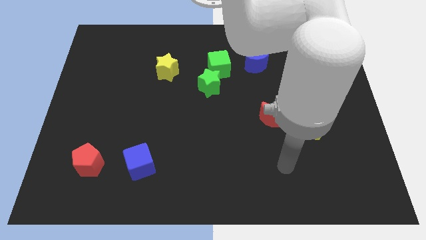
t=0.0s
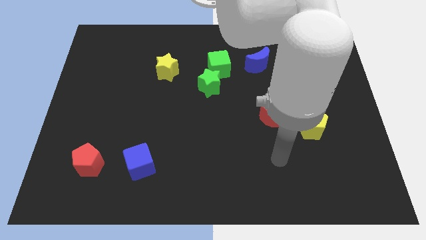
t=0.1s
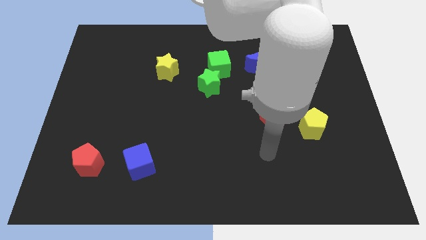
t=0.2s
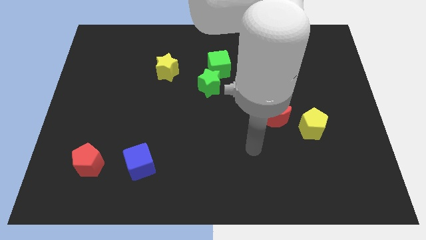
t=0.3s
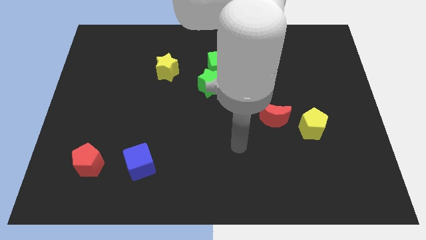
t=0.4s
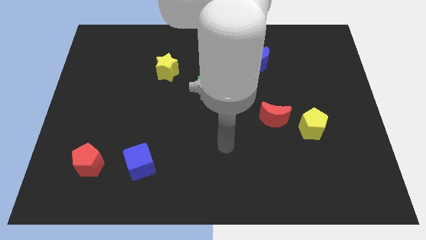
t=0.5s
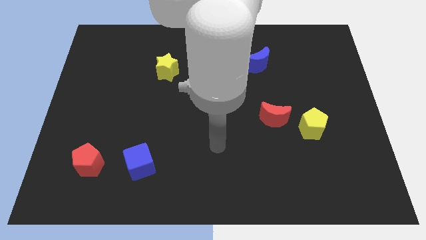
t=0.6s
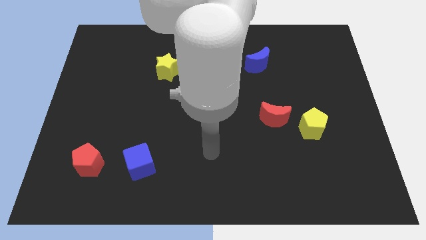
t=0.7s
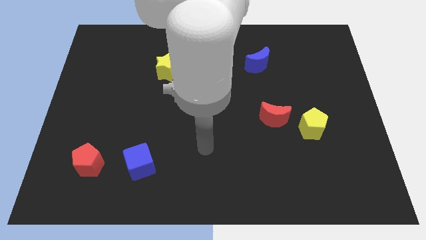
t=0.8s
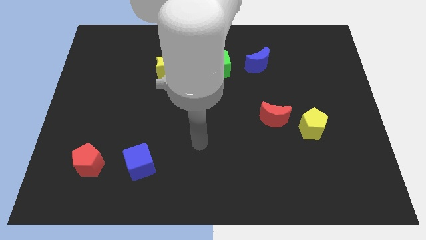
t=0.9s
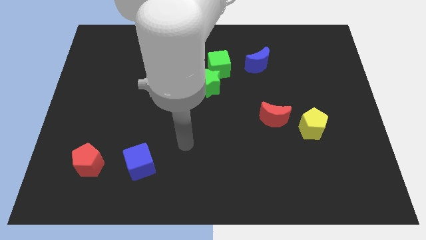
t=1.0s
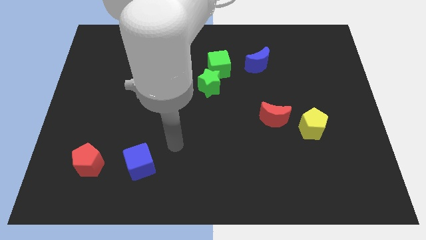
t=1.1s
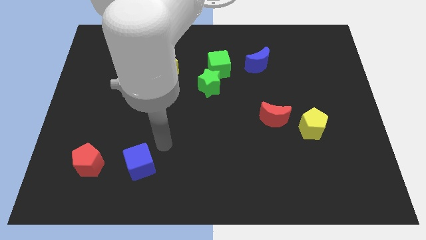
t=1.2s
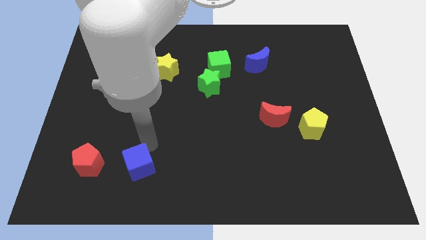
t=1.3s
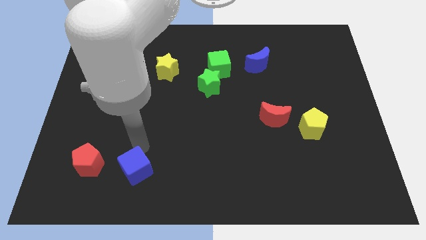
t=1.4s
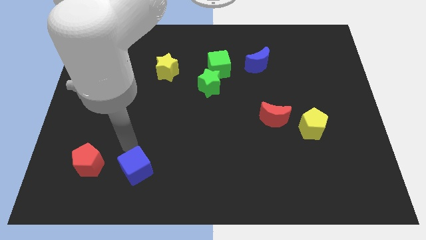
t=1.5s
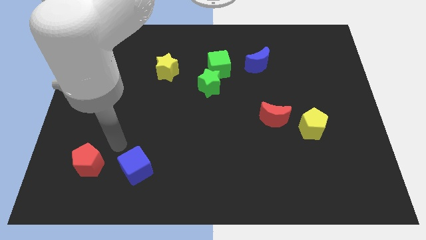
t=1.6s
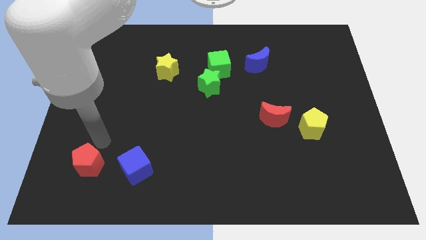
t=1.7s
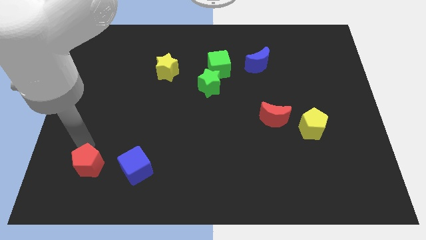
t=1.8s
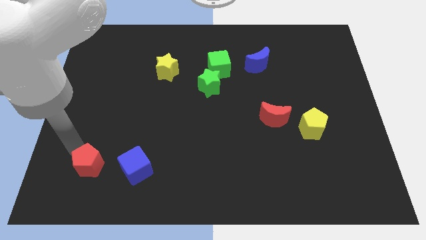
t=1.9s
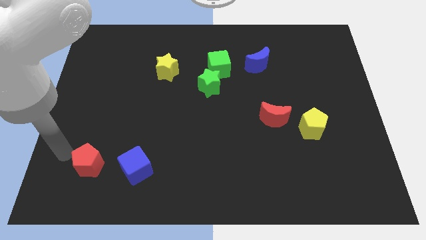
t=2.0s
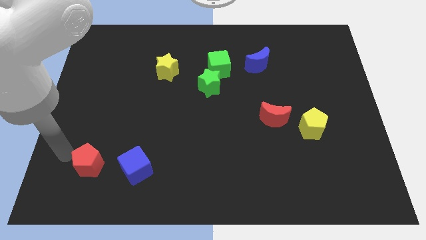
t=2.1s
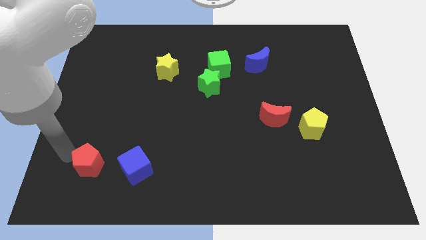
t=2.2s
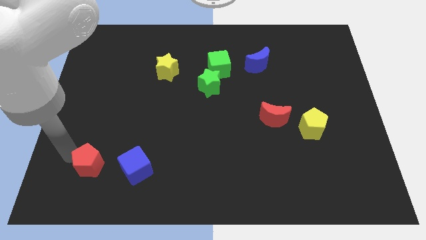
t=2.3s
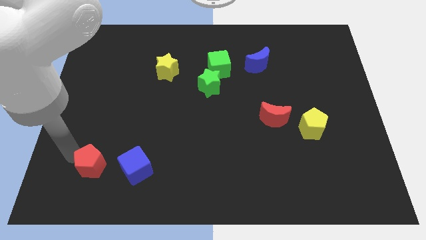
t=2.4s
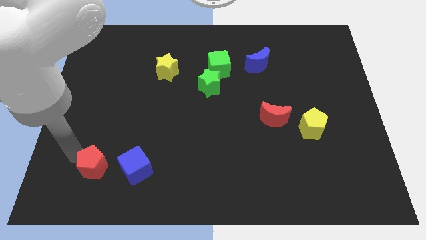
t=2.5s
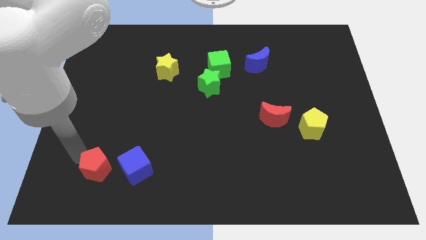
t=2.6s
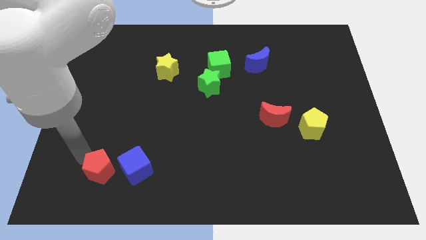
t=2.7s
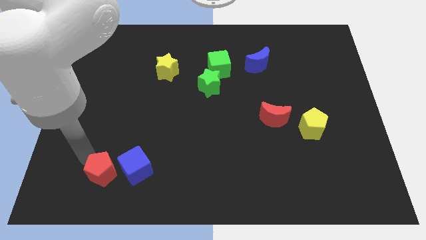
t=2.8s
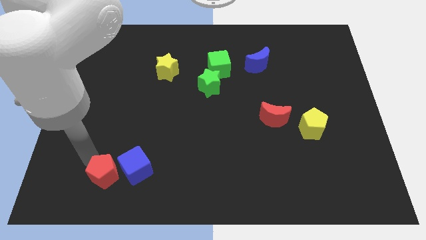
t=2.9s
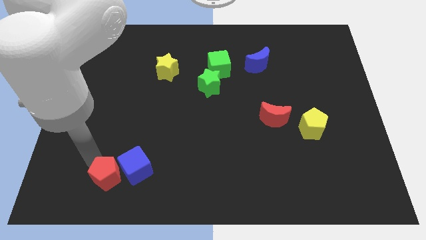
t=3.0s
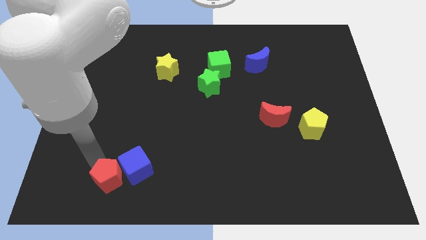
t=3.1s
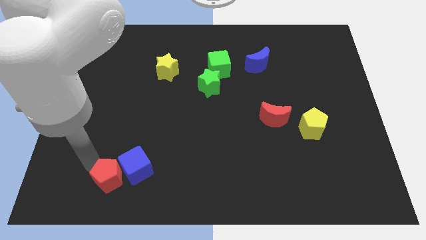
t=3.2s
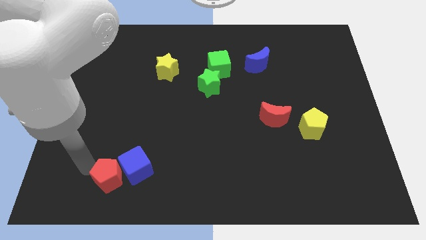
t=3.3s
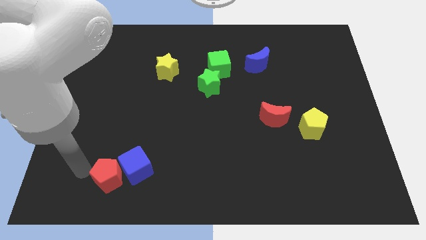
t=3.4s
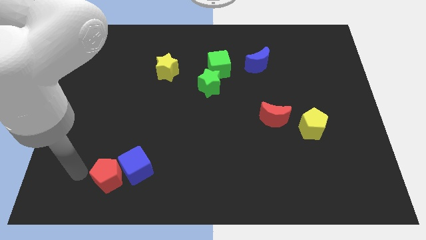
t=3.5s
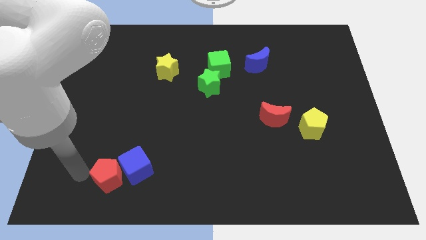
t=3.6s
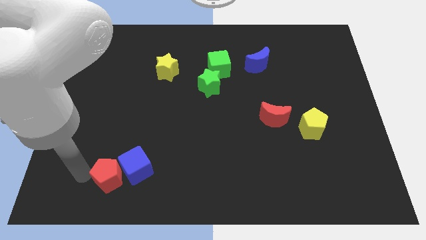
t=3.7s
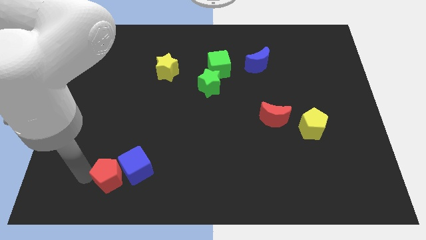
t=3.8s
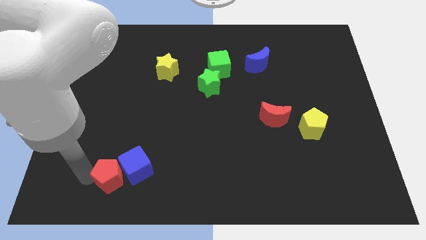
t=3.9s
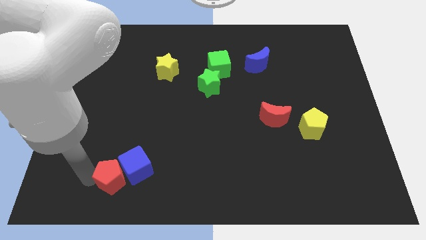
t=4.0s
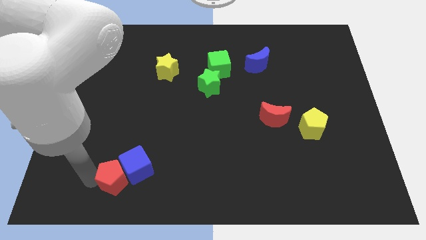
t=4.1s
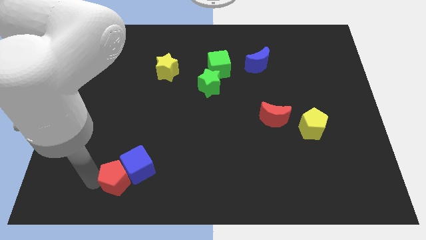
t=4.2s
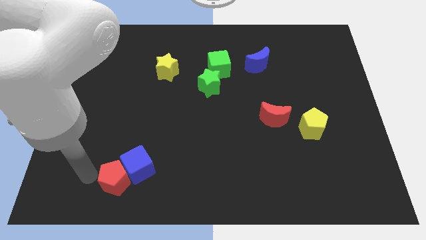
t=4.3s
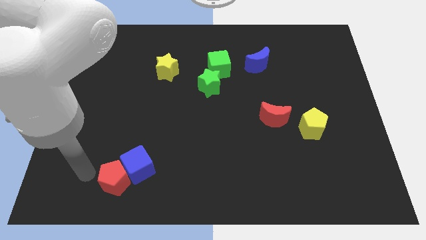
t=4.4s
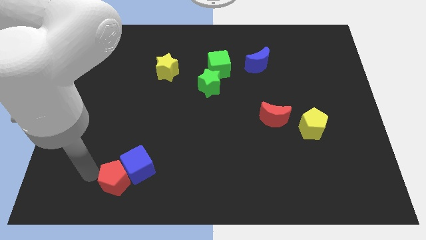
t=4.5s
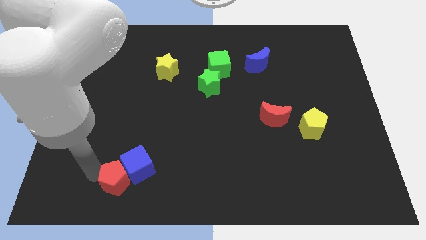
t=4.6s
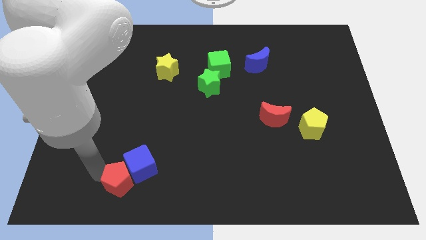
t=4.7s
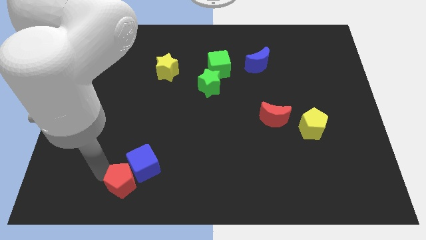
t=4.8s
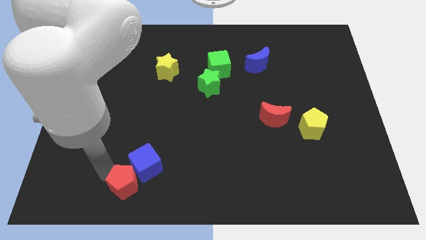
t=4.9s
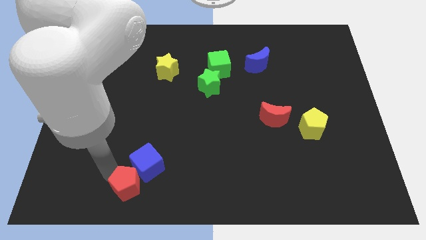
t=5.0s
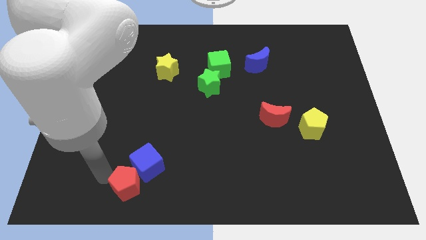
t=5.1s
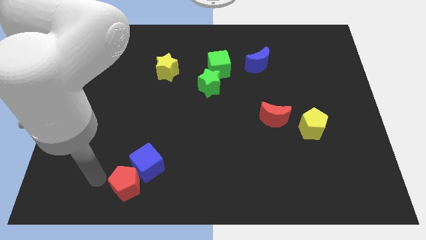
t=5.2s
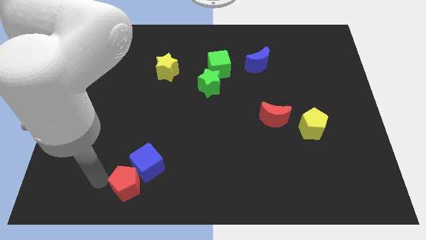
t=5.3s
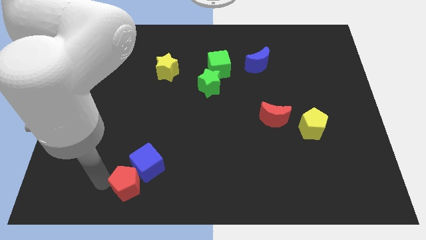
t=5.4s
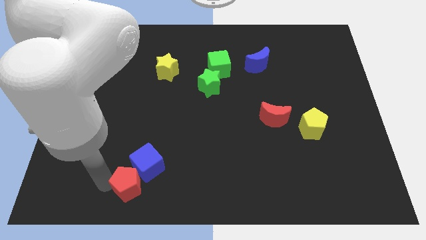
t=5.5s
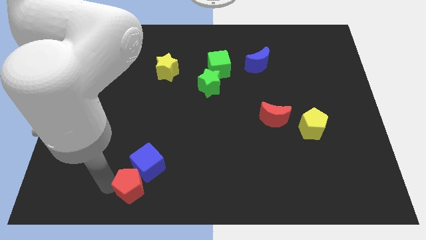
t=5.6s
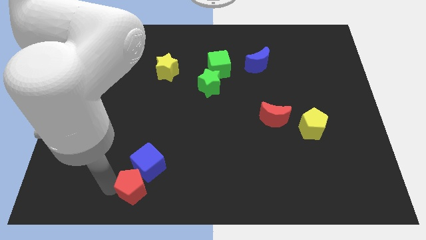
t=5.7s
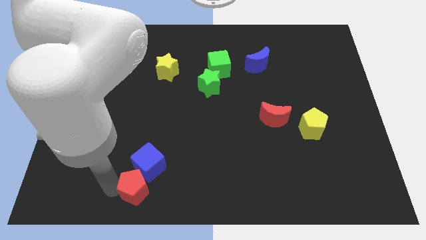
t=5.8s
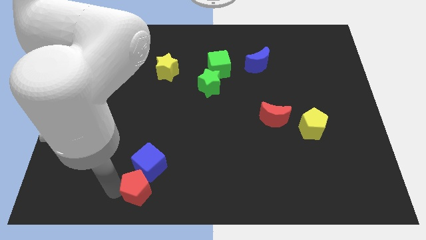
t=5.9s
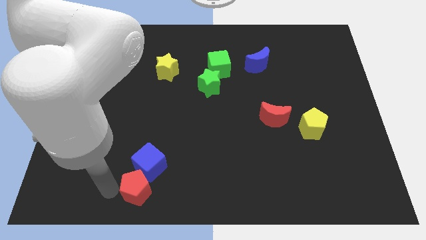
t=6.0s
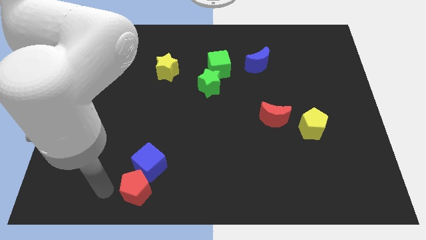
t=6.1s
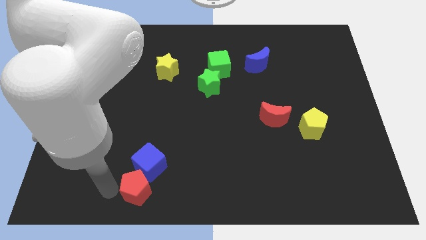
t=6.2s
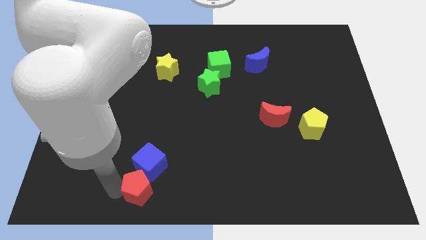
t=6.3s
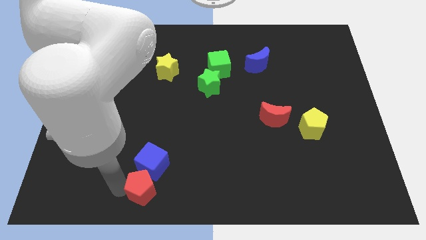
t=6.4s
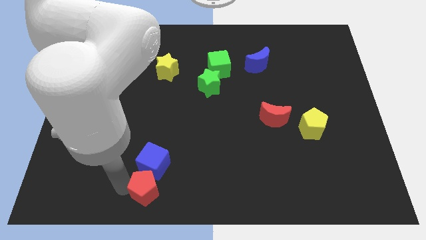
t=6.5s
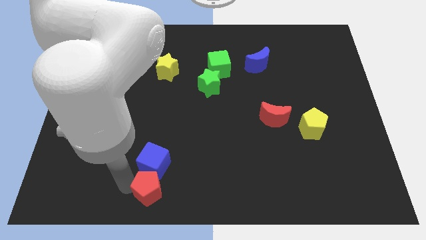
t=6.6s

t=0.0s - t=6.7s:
slide the red pentagon to the bottom side
